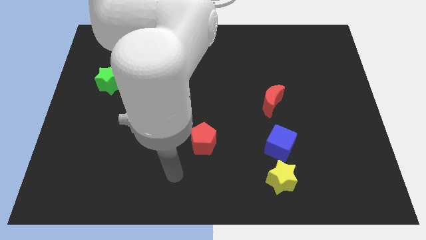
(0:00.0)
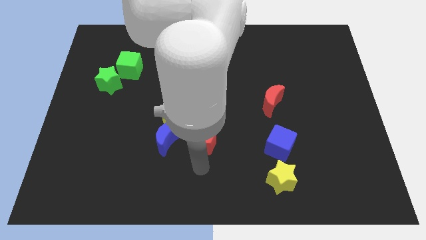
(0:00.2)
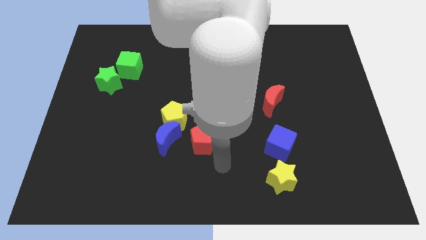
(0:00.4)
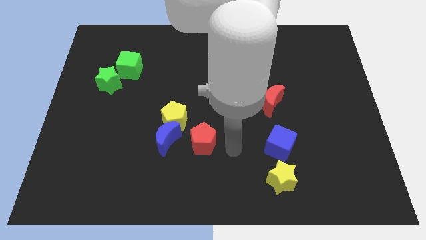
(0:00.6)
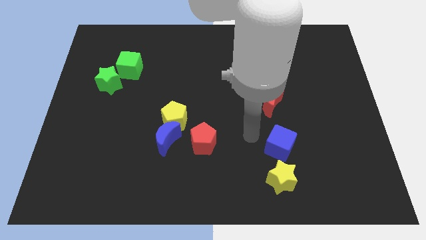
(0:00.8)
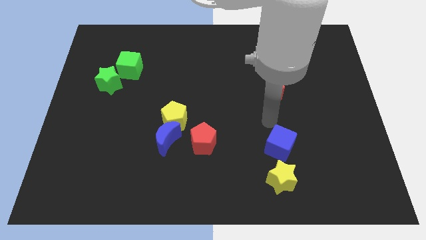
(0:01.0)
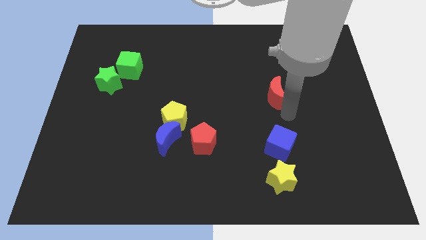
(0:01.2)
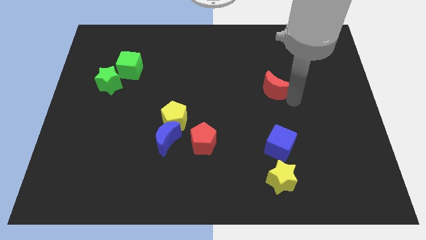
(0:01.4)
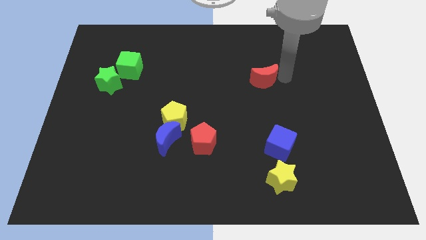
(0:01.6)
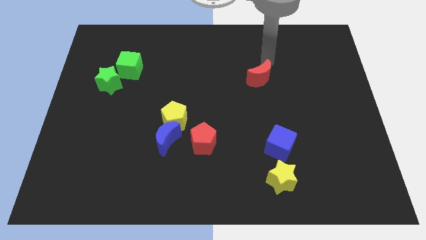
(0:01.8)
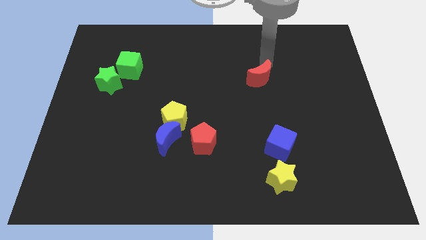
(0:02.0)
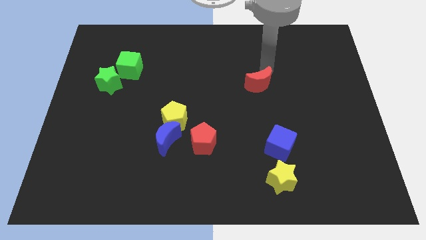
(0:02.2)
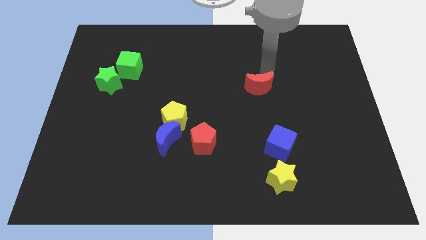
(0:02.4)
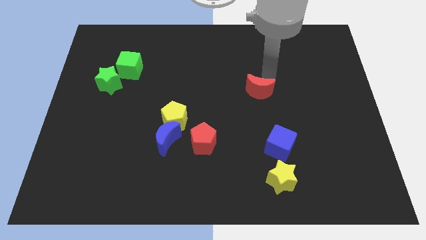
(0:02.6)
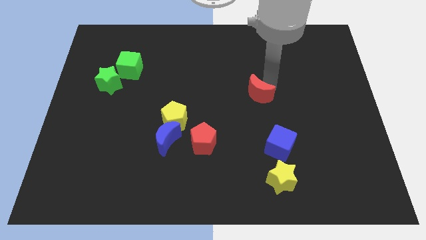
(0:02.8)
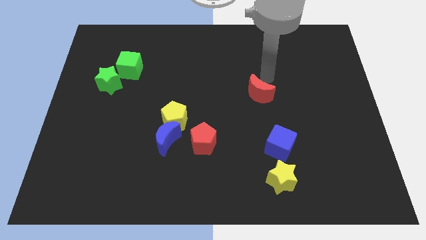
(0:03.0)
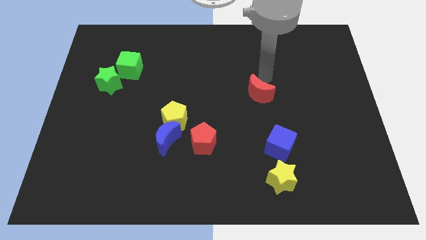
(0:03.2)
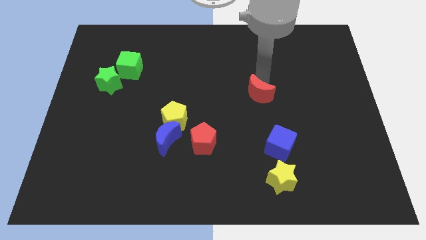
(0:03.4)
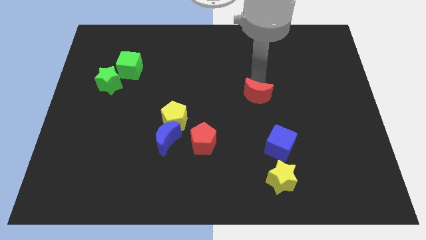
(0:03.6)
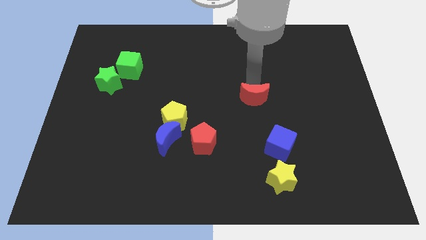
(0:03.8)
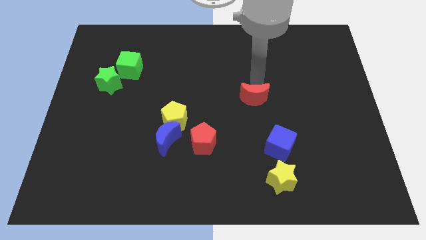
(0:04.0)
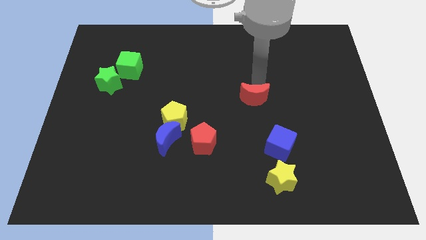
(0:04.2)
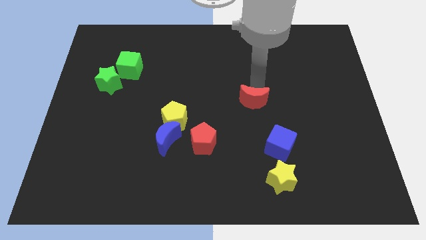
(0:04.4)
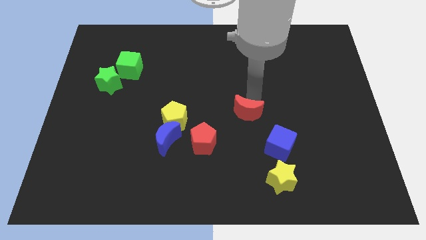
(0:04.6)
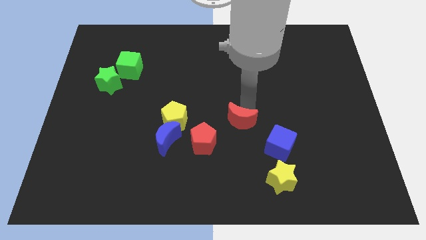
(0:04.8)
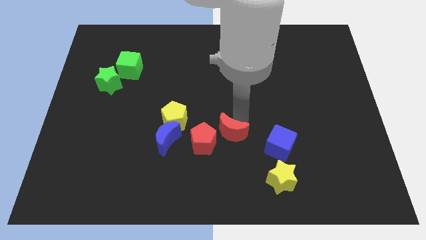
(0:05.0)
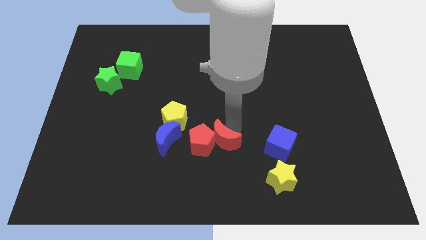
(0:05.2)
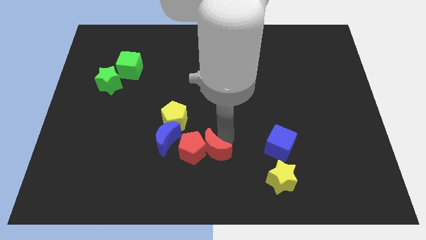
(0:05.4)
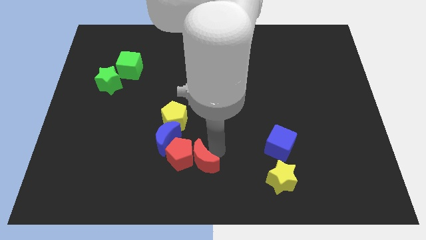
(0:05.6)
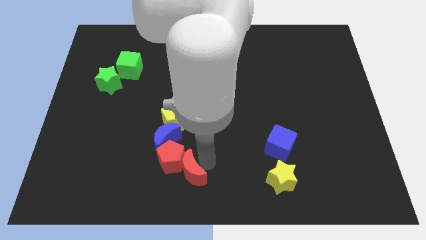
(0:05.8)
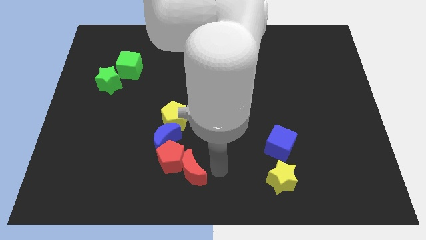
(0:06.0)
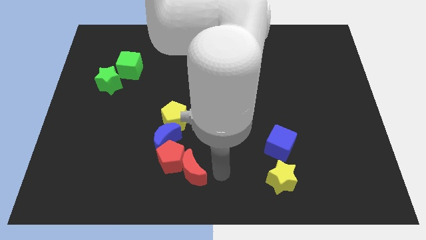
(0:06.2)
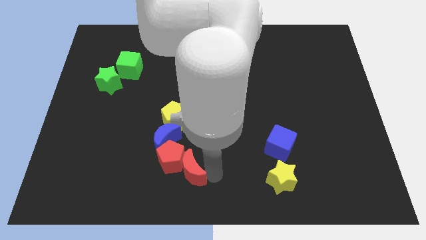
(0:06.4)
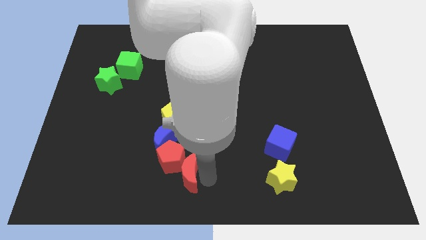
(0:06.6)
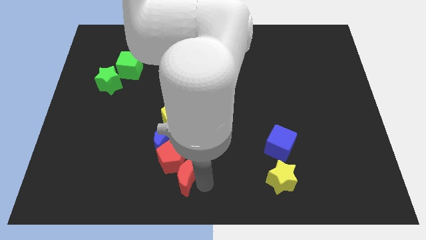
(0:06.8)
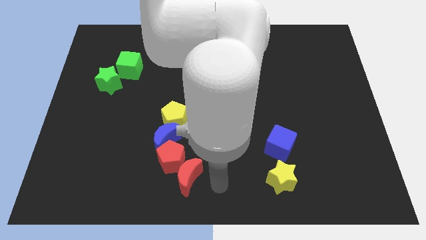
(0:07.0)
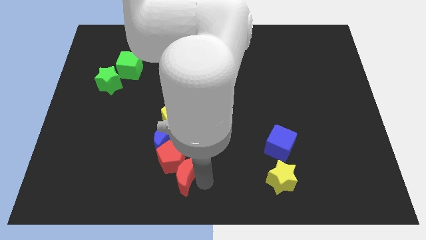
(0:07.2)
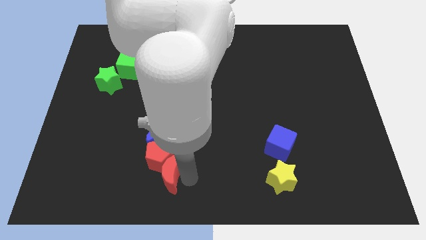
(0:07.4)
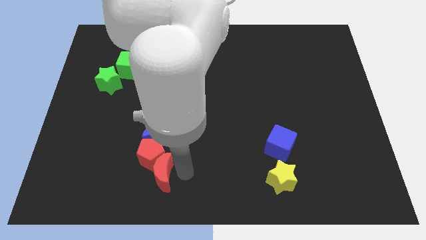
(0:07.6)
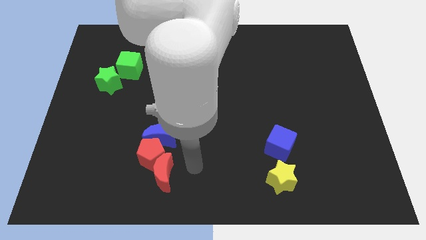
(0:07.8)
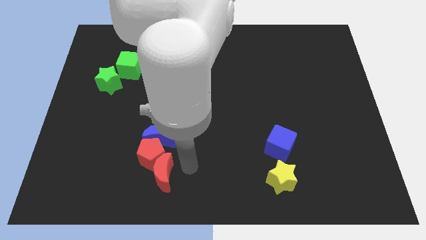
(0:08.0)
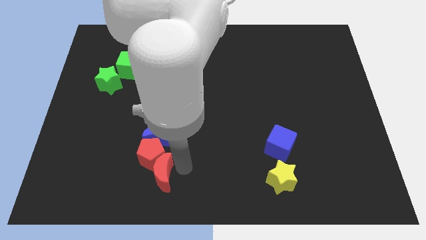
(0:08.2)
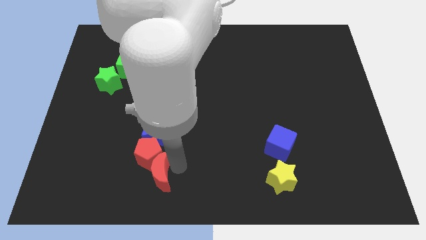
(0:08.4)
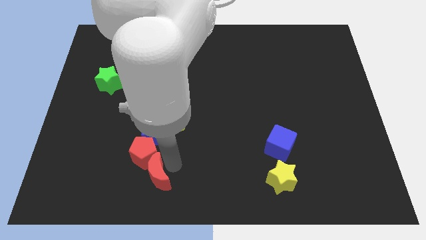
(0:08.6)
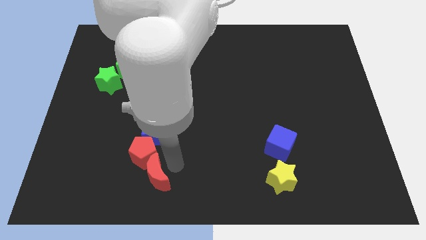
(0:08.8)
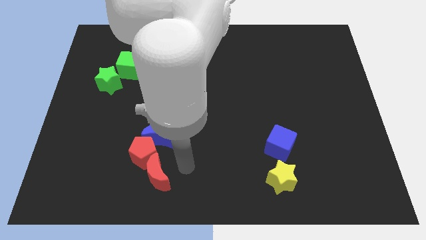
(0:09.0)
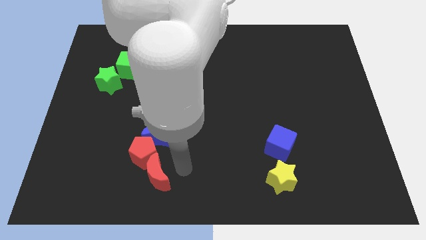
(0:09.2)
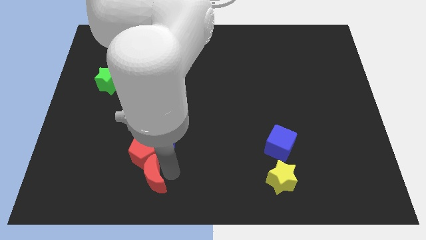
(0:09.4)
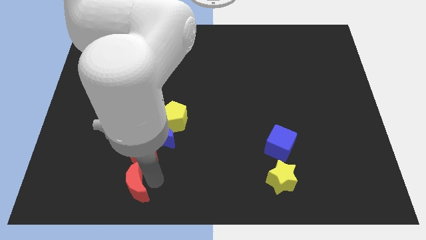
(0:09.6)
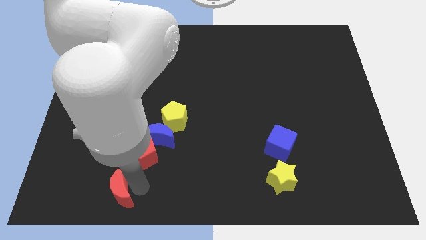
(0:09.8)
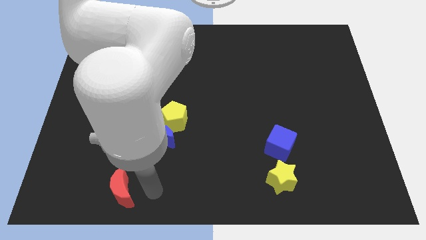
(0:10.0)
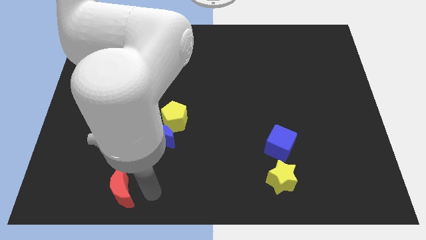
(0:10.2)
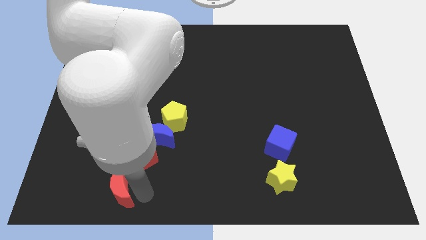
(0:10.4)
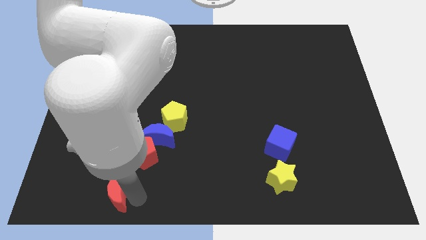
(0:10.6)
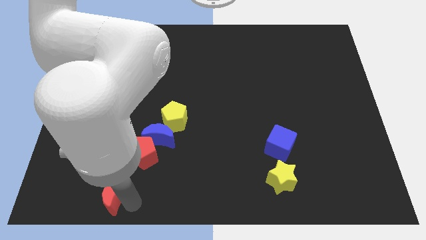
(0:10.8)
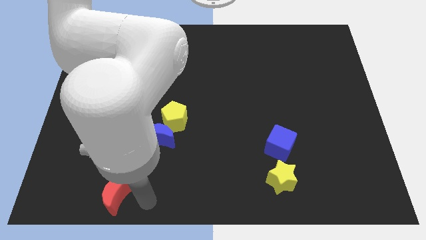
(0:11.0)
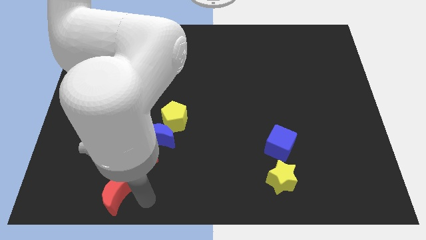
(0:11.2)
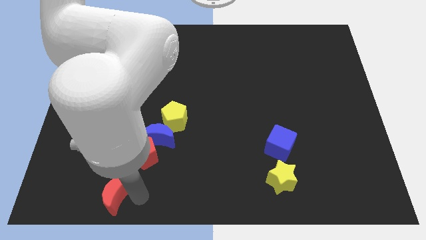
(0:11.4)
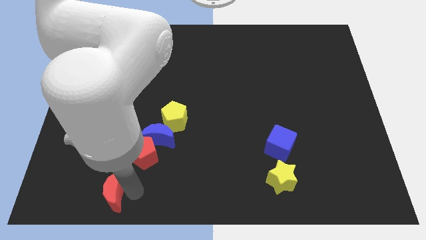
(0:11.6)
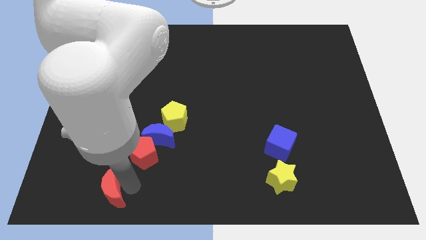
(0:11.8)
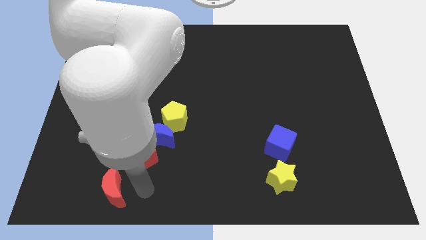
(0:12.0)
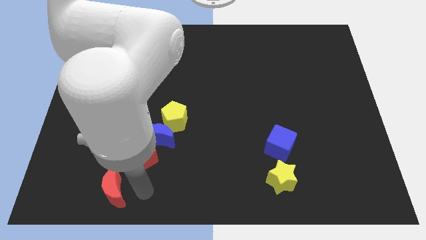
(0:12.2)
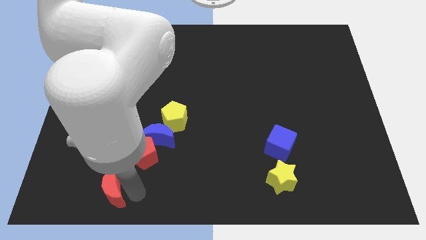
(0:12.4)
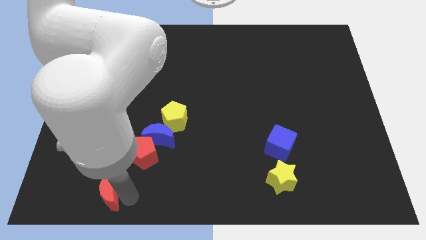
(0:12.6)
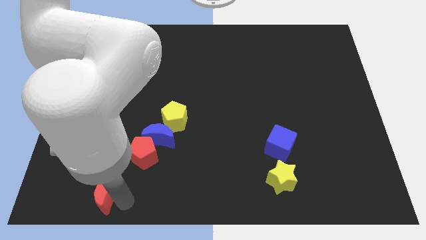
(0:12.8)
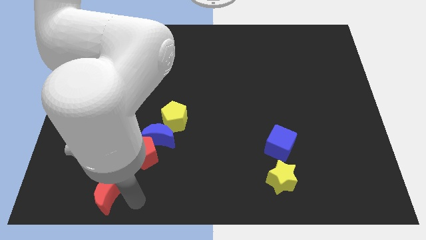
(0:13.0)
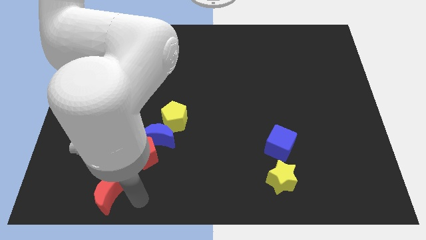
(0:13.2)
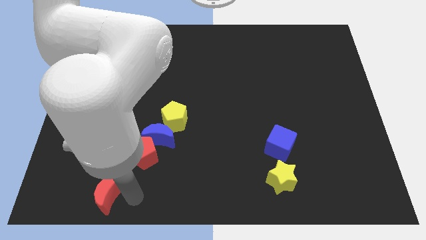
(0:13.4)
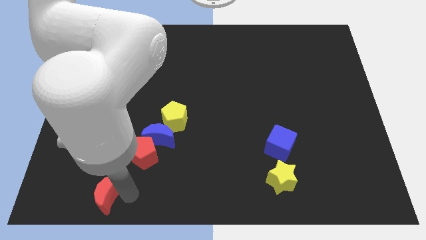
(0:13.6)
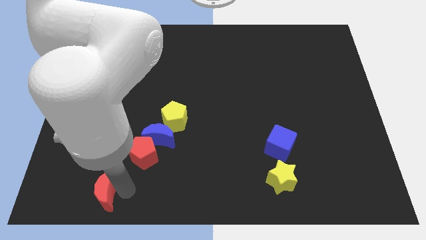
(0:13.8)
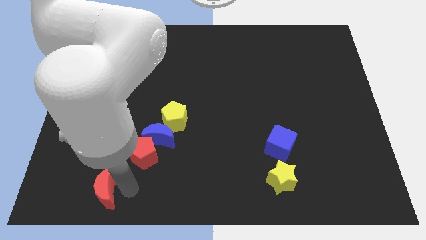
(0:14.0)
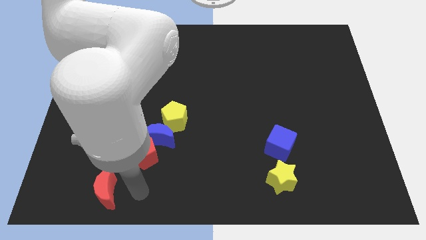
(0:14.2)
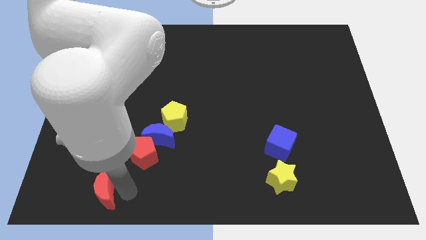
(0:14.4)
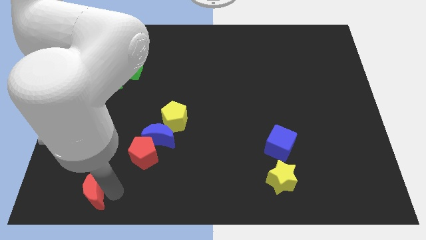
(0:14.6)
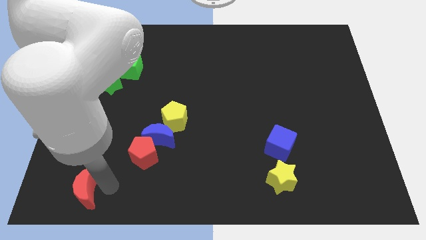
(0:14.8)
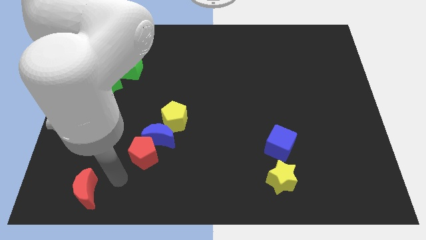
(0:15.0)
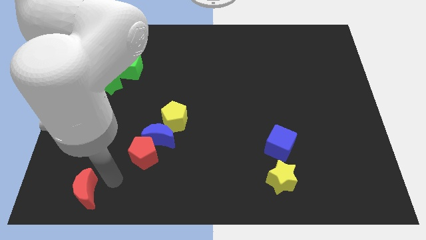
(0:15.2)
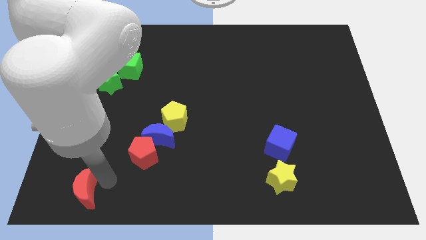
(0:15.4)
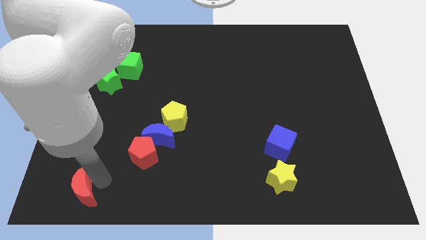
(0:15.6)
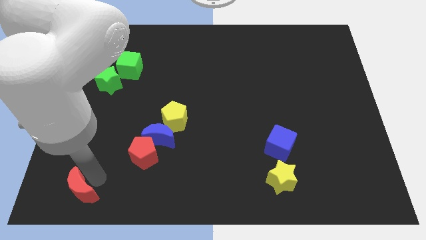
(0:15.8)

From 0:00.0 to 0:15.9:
put the red moon to the lower left corner
